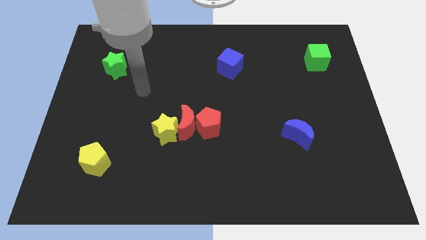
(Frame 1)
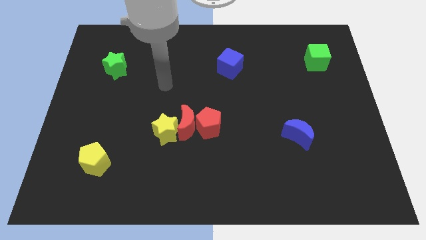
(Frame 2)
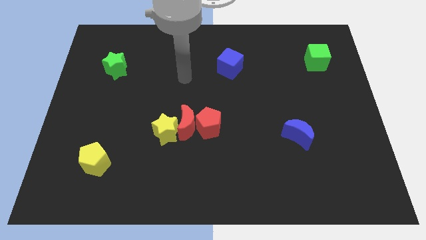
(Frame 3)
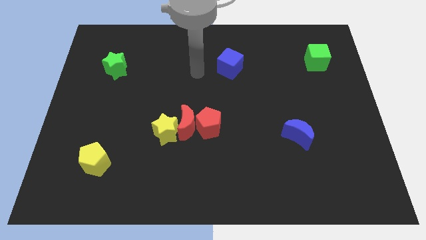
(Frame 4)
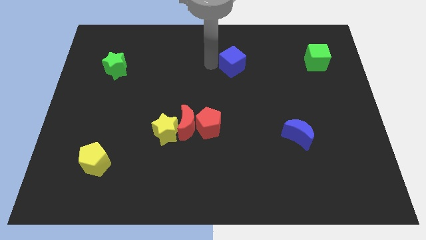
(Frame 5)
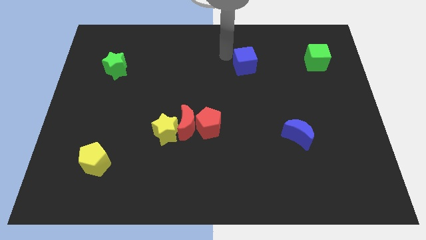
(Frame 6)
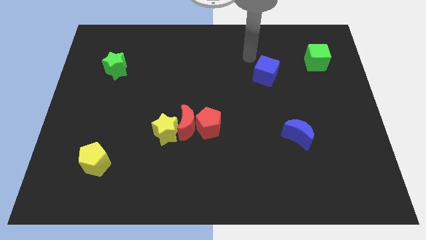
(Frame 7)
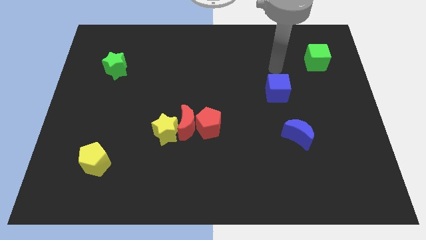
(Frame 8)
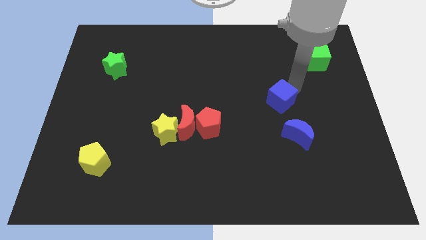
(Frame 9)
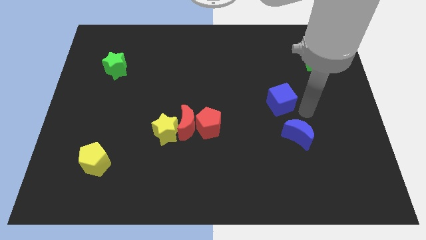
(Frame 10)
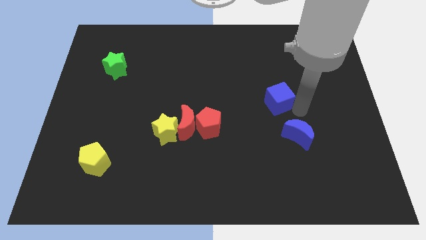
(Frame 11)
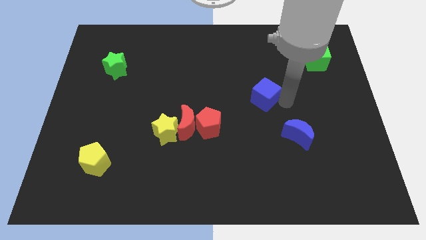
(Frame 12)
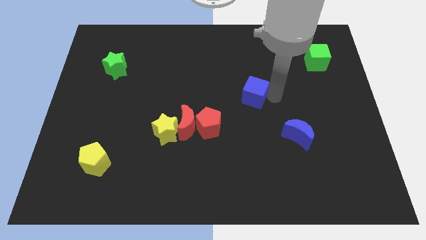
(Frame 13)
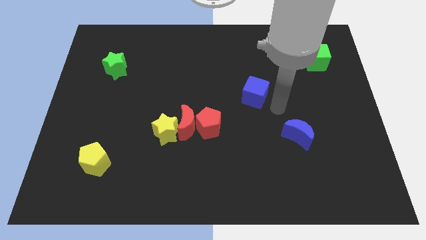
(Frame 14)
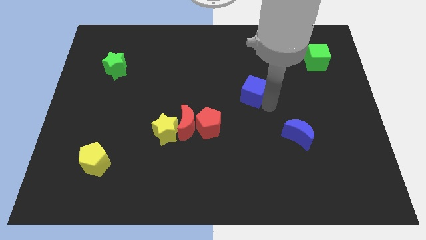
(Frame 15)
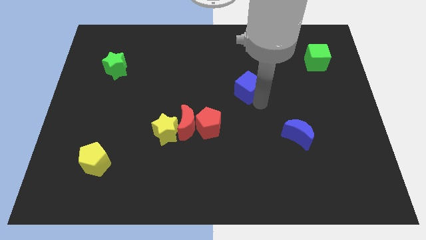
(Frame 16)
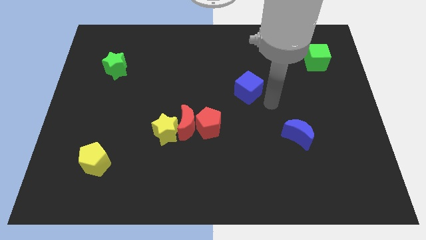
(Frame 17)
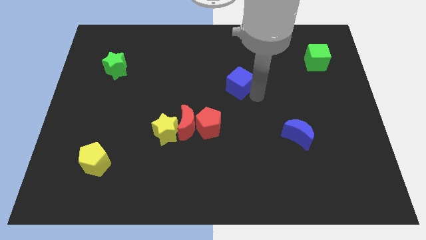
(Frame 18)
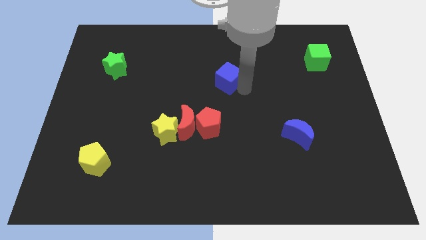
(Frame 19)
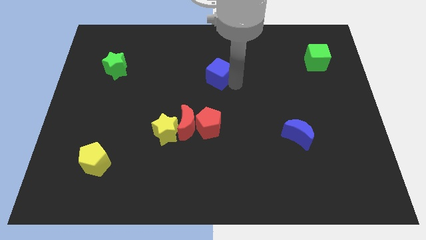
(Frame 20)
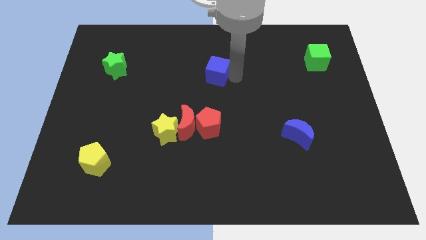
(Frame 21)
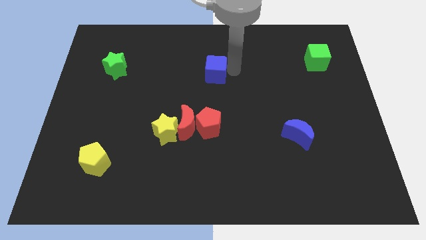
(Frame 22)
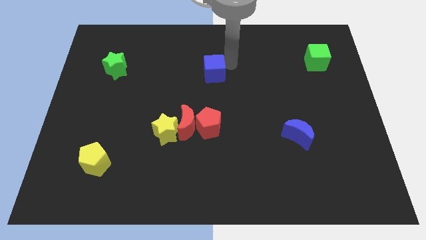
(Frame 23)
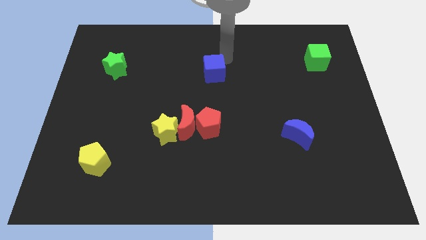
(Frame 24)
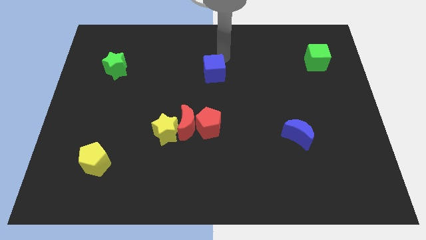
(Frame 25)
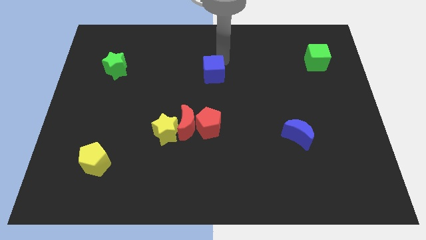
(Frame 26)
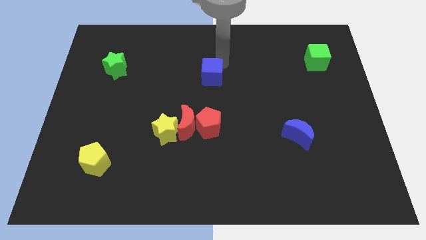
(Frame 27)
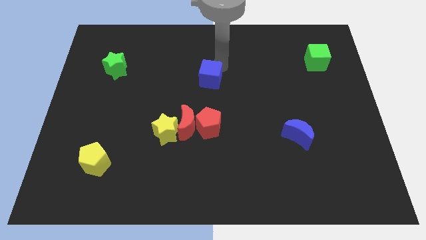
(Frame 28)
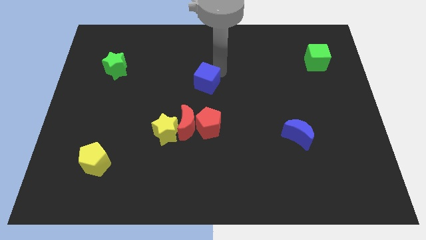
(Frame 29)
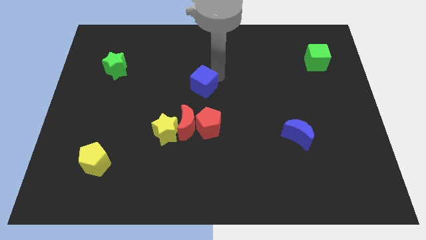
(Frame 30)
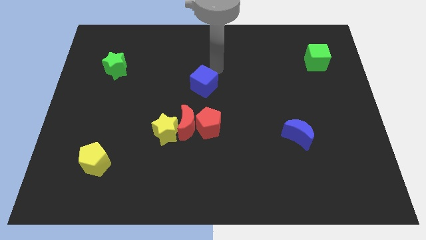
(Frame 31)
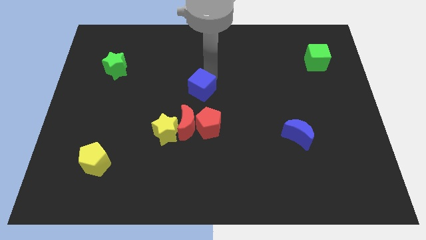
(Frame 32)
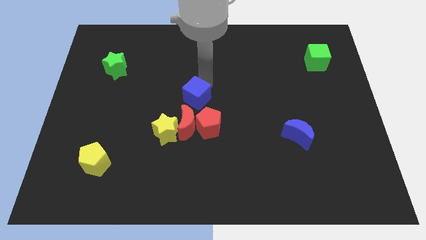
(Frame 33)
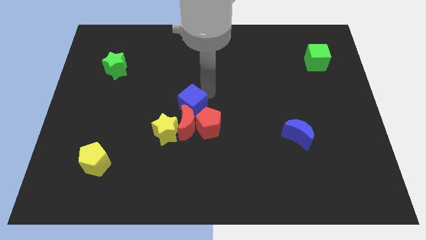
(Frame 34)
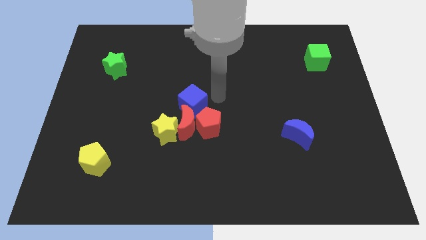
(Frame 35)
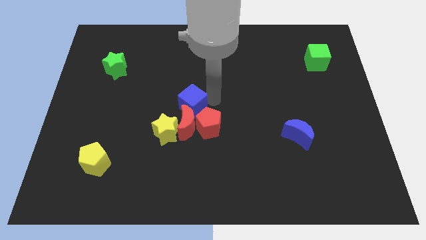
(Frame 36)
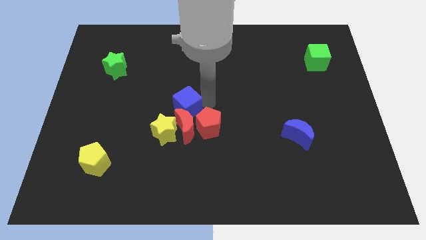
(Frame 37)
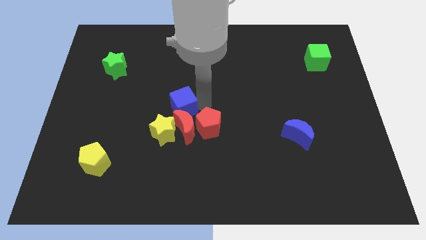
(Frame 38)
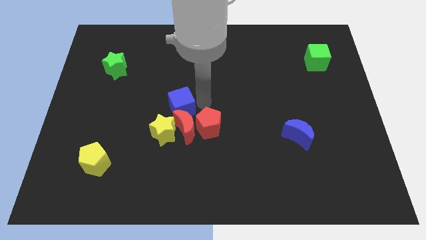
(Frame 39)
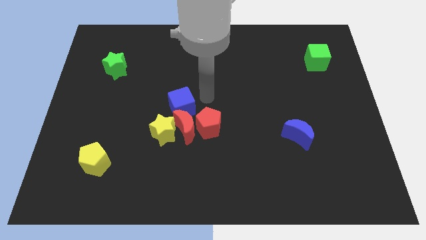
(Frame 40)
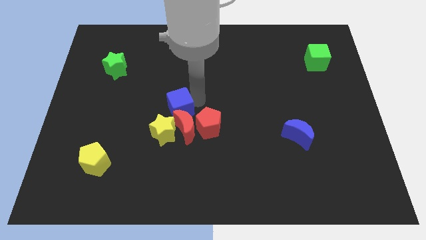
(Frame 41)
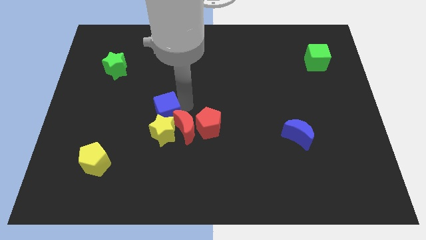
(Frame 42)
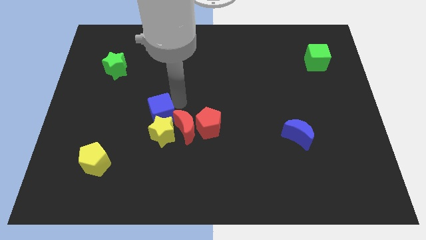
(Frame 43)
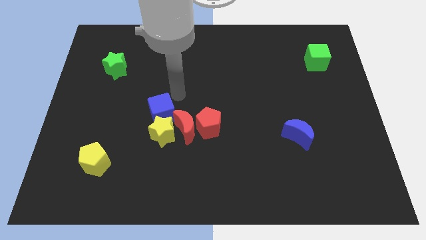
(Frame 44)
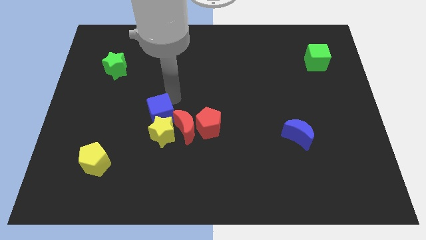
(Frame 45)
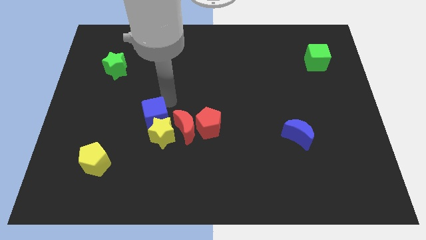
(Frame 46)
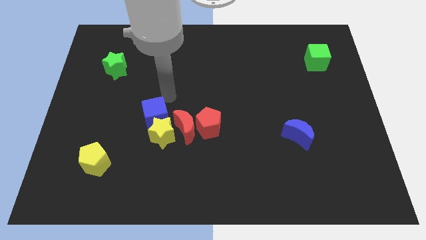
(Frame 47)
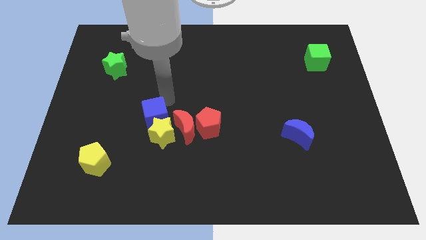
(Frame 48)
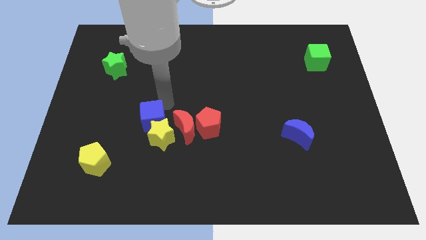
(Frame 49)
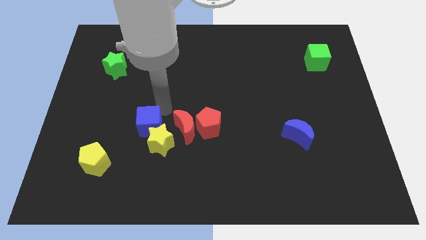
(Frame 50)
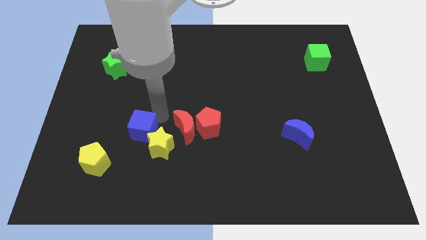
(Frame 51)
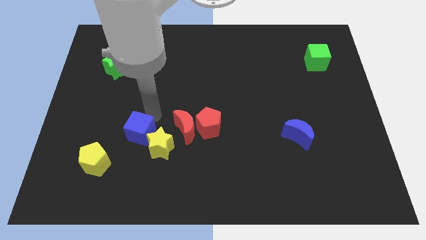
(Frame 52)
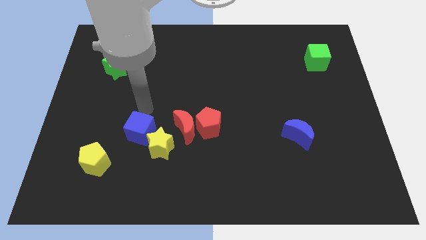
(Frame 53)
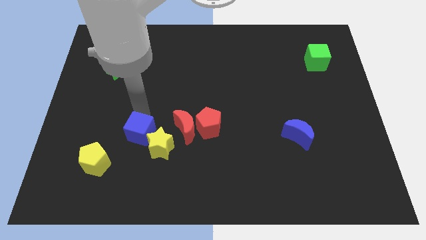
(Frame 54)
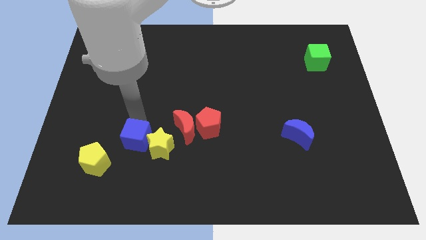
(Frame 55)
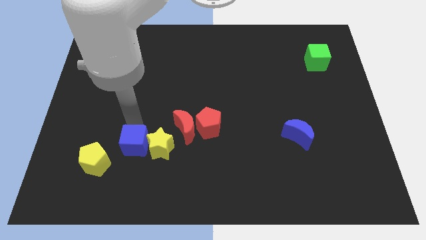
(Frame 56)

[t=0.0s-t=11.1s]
put the blue cube to the bottom left of the yellow star
